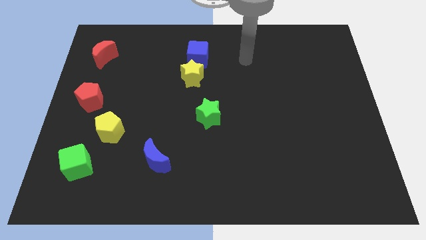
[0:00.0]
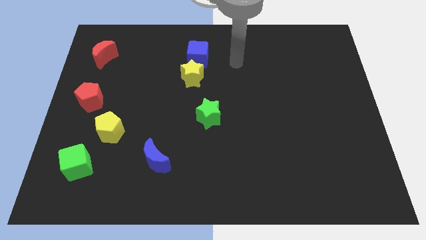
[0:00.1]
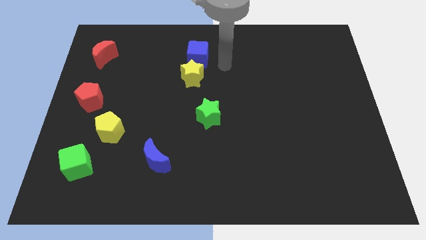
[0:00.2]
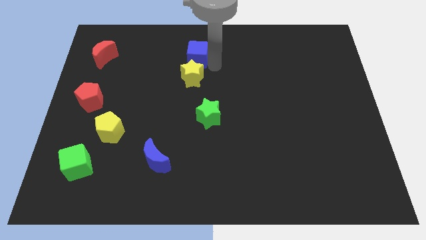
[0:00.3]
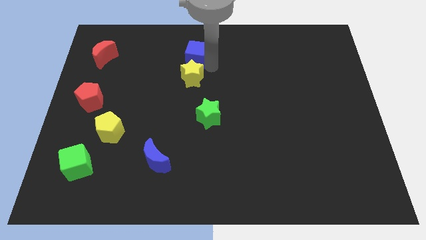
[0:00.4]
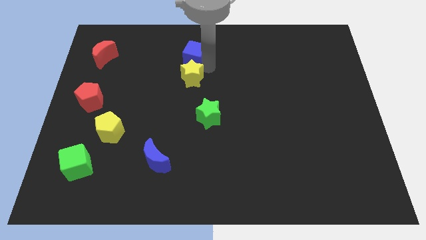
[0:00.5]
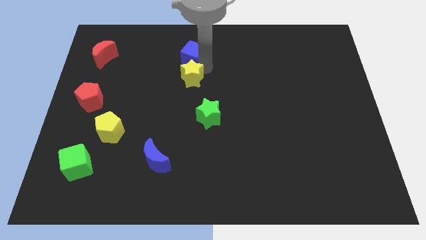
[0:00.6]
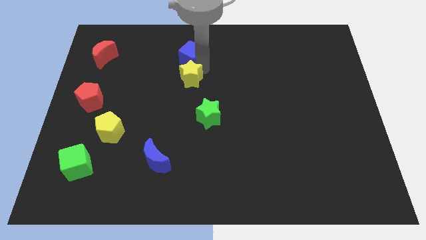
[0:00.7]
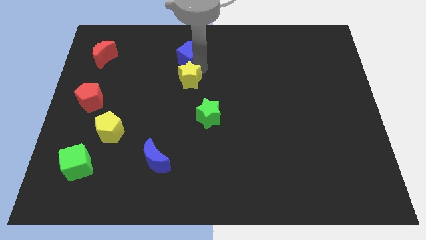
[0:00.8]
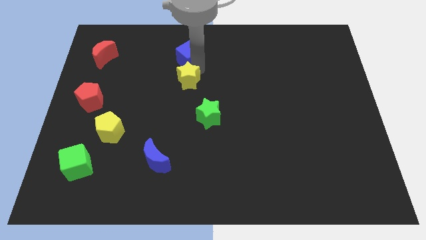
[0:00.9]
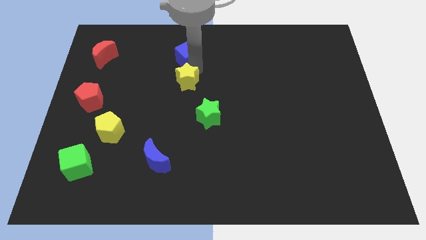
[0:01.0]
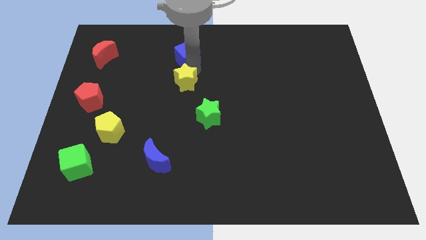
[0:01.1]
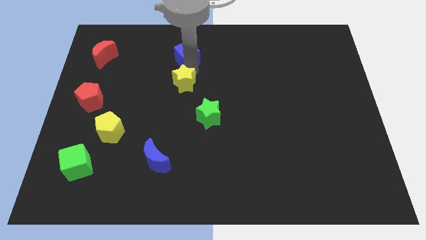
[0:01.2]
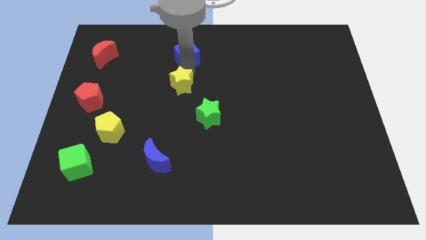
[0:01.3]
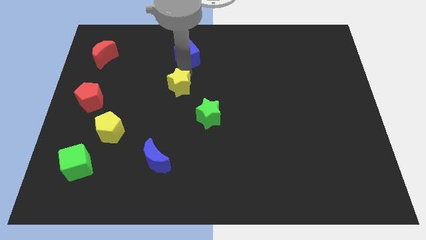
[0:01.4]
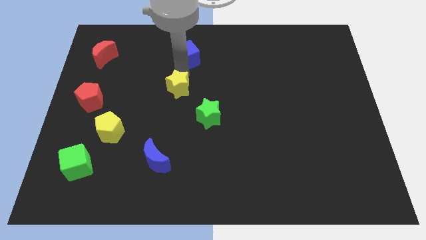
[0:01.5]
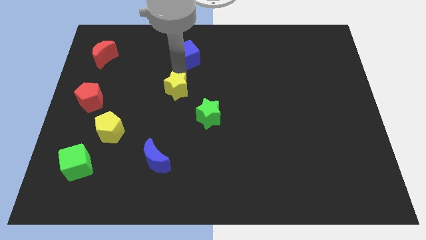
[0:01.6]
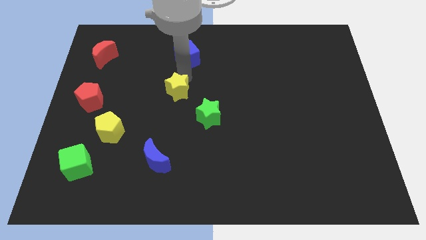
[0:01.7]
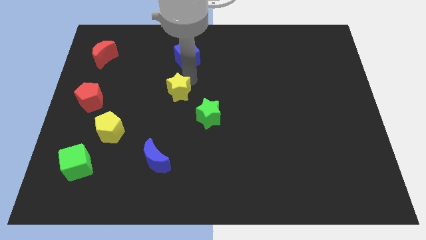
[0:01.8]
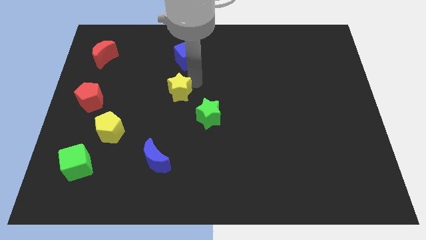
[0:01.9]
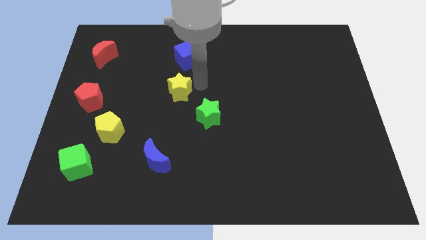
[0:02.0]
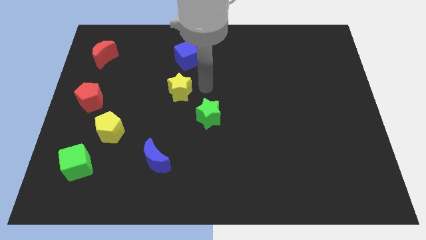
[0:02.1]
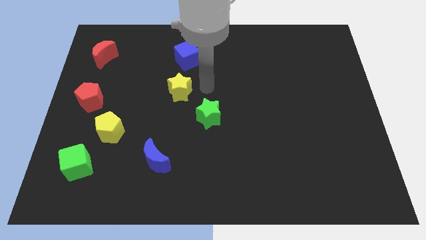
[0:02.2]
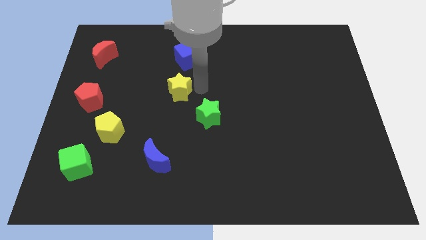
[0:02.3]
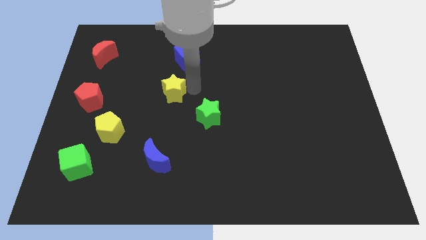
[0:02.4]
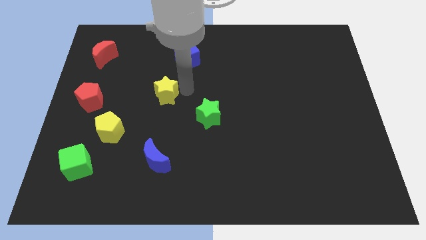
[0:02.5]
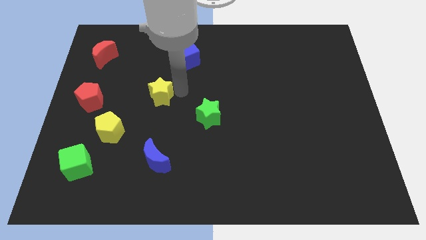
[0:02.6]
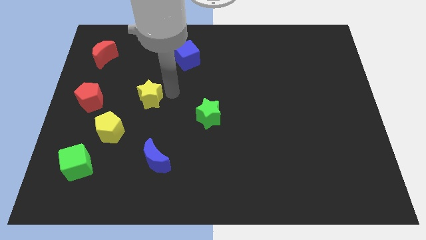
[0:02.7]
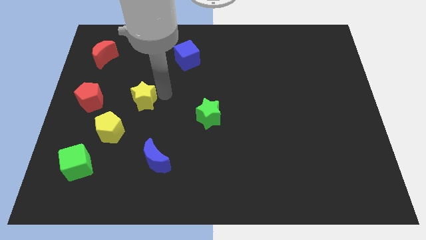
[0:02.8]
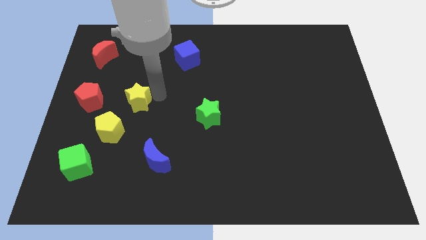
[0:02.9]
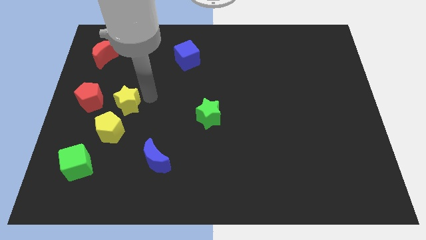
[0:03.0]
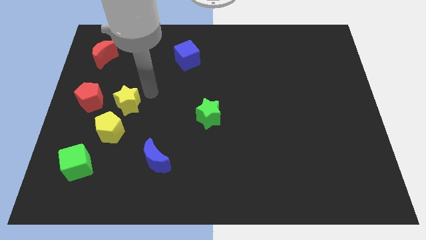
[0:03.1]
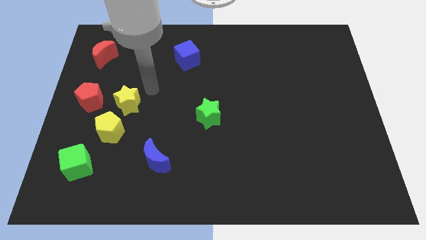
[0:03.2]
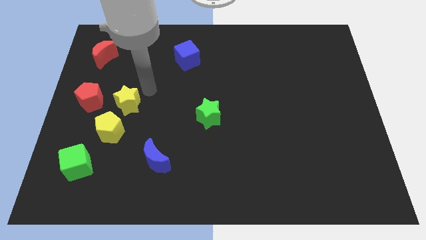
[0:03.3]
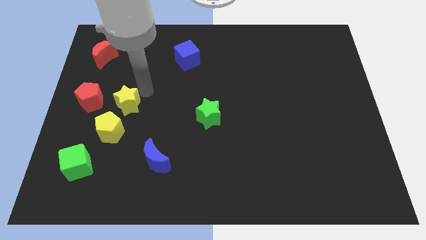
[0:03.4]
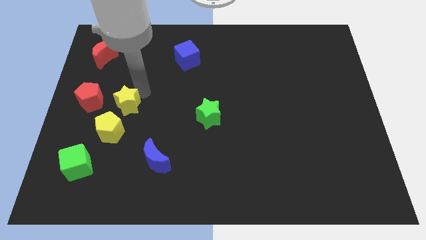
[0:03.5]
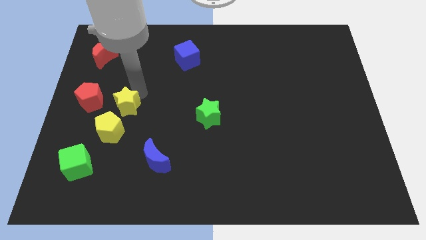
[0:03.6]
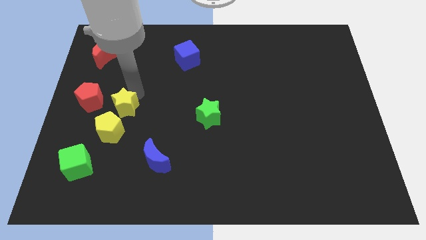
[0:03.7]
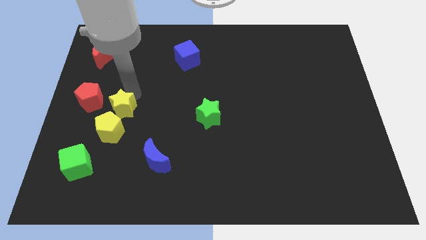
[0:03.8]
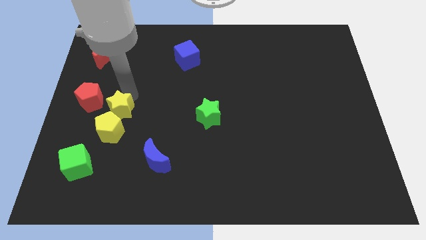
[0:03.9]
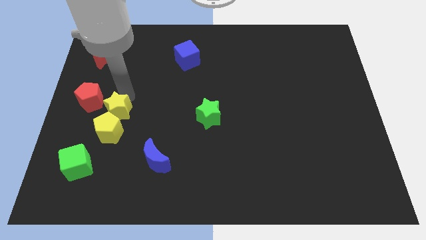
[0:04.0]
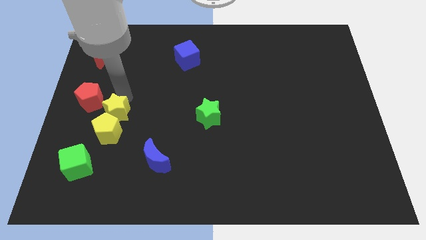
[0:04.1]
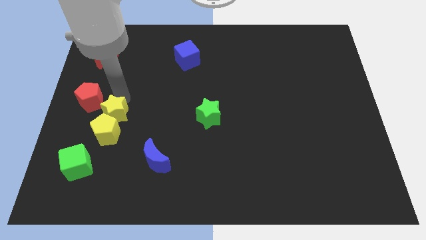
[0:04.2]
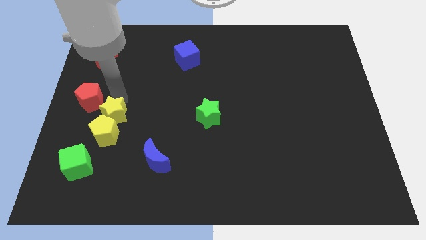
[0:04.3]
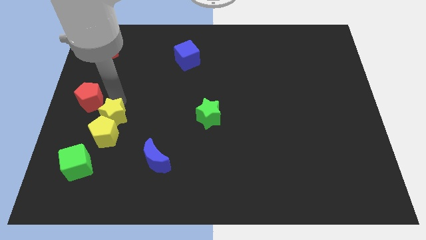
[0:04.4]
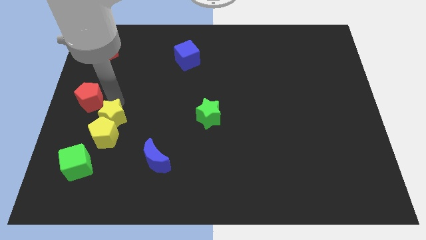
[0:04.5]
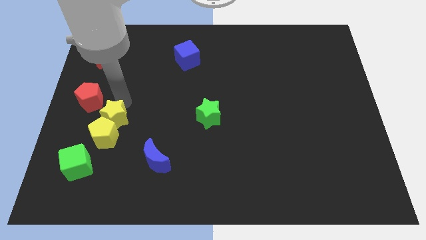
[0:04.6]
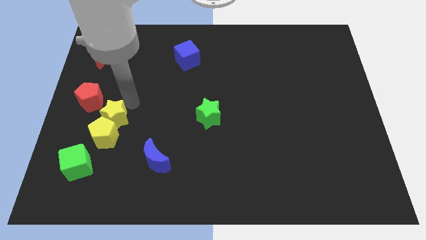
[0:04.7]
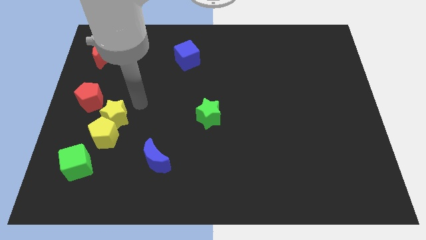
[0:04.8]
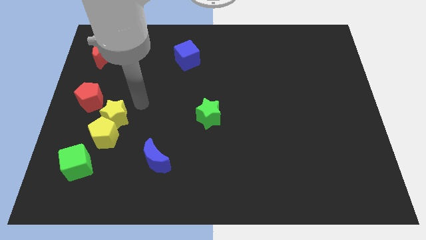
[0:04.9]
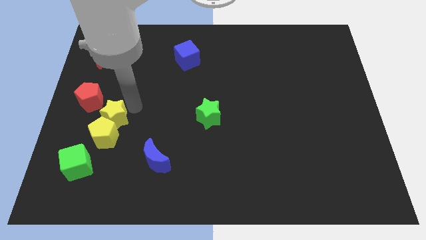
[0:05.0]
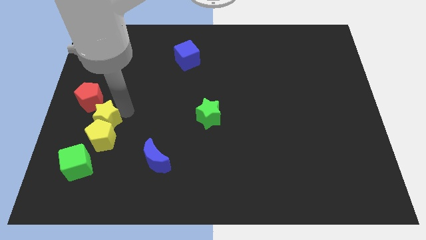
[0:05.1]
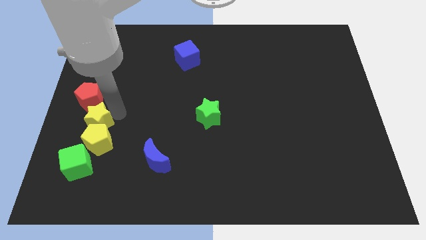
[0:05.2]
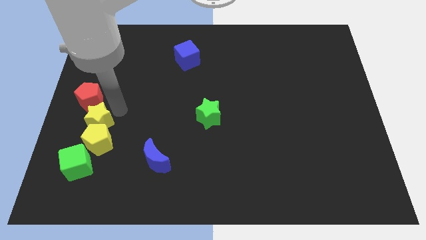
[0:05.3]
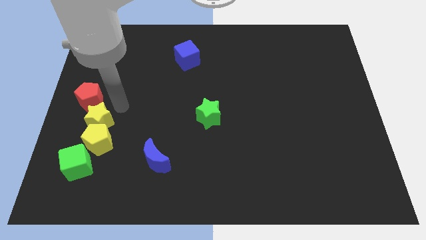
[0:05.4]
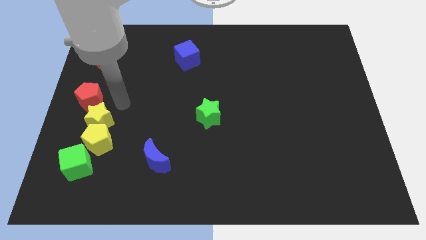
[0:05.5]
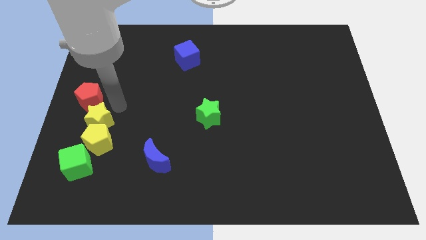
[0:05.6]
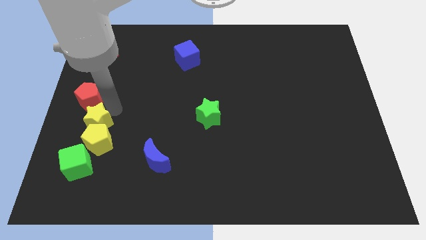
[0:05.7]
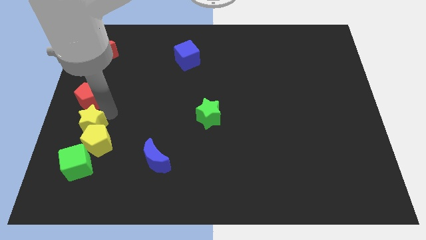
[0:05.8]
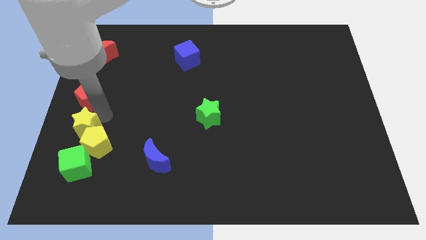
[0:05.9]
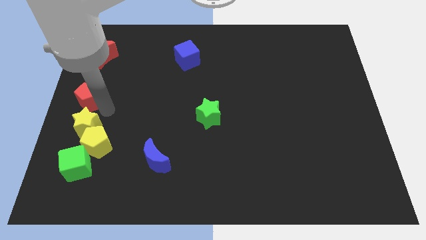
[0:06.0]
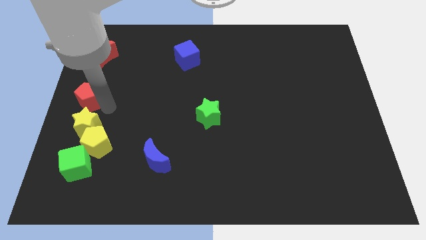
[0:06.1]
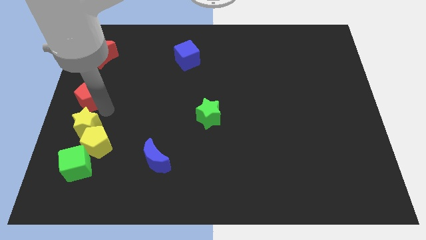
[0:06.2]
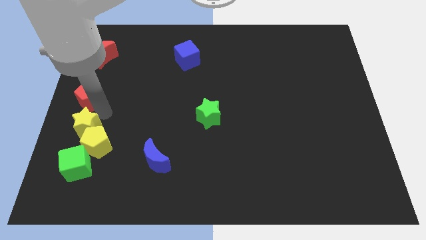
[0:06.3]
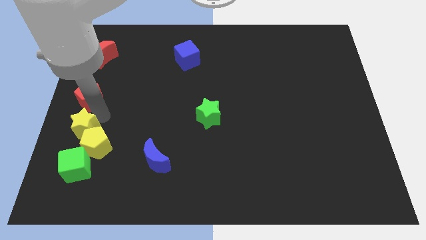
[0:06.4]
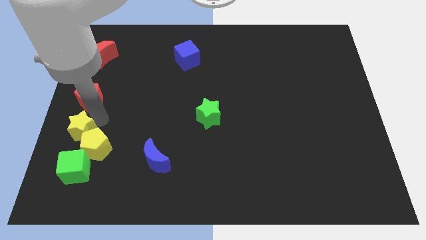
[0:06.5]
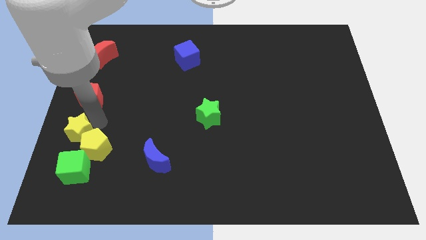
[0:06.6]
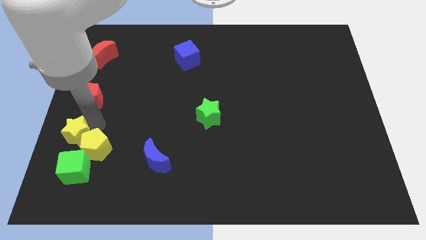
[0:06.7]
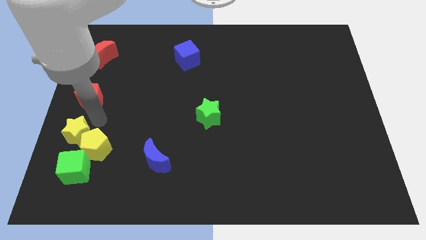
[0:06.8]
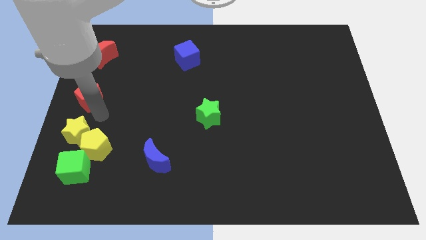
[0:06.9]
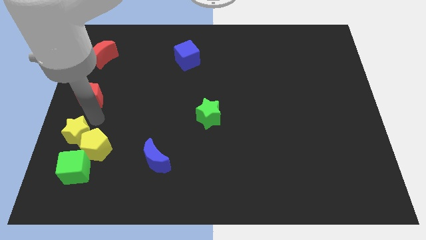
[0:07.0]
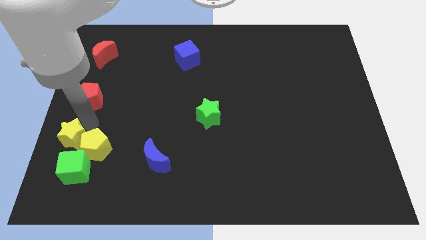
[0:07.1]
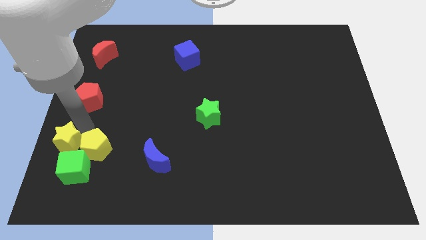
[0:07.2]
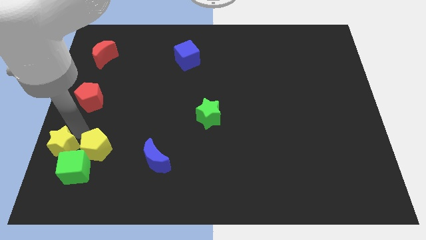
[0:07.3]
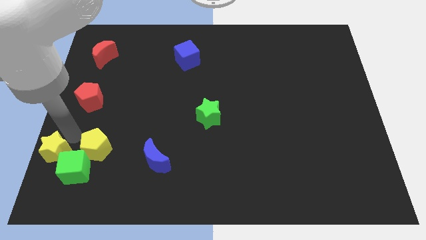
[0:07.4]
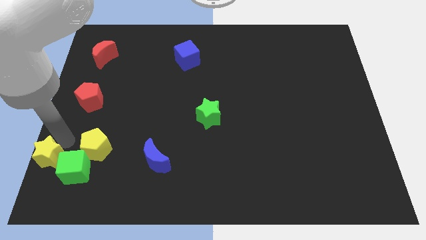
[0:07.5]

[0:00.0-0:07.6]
push the yellow star to the bottom left of the board
